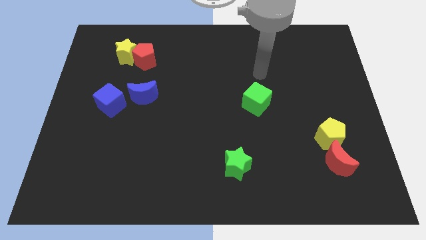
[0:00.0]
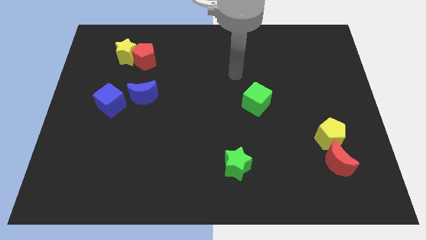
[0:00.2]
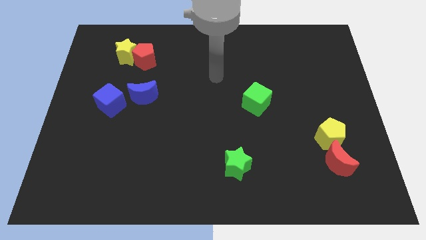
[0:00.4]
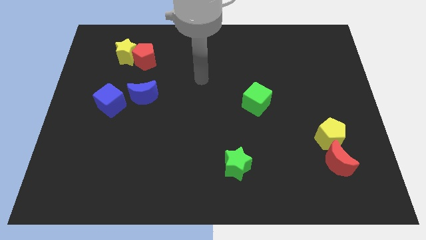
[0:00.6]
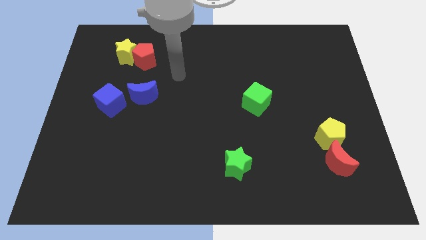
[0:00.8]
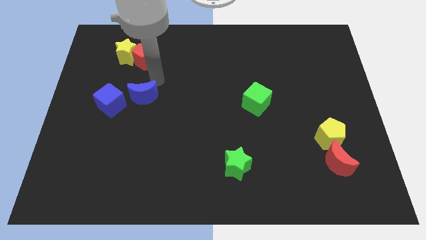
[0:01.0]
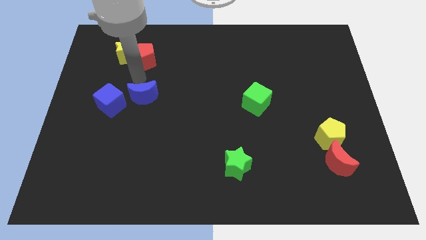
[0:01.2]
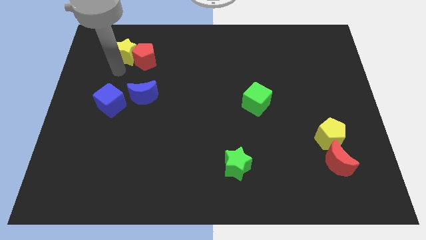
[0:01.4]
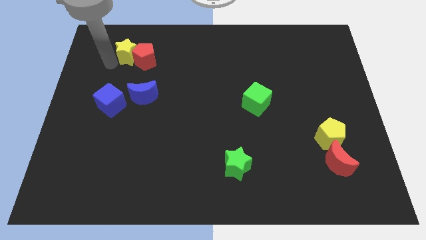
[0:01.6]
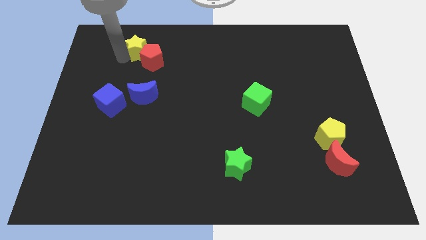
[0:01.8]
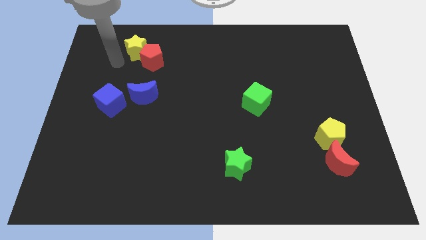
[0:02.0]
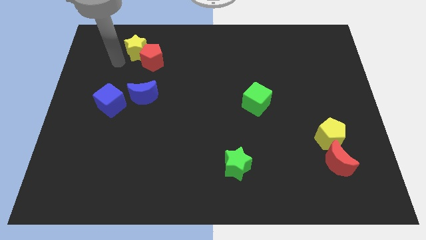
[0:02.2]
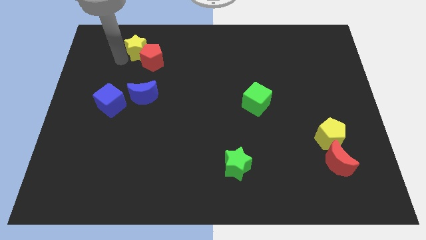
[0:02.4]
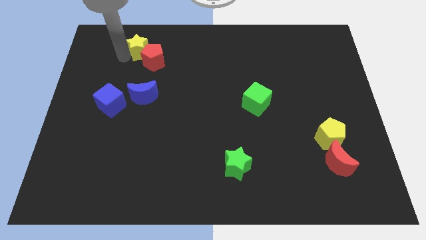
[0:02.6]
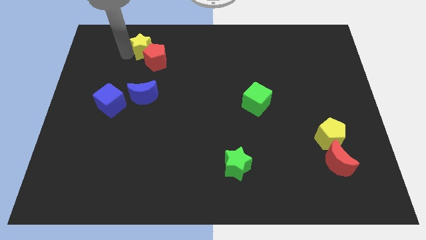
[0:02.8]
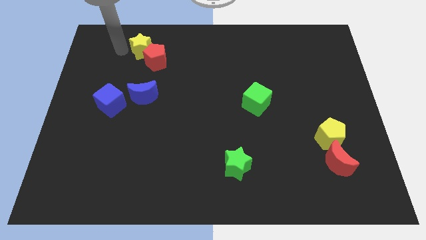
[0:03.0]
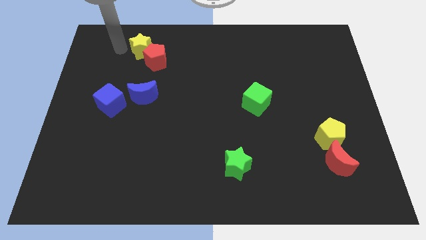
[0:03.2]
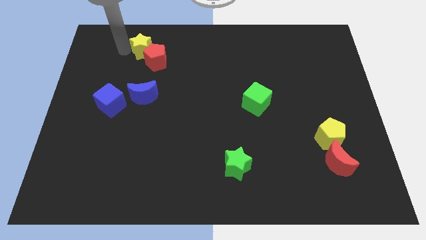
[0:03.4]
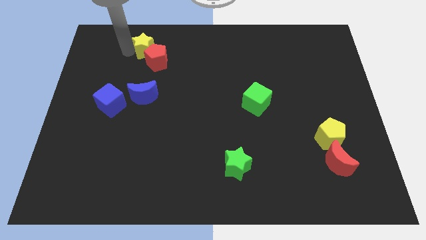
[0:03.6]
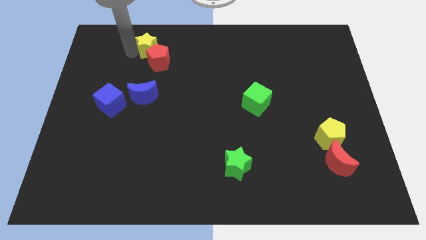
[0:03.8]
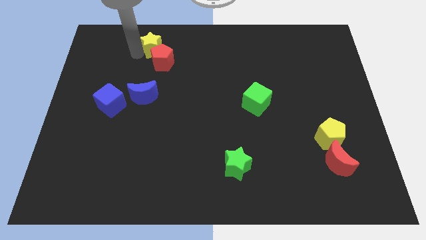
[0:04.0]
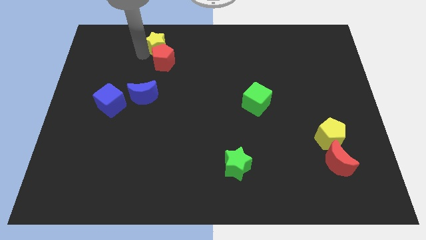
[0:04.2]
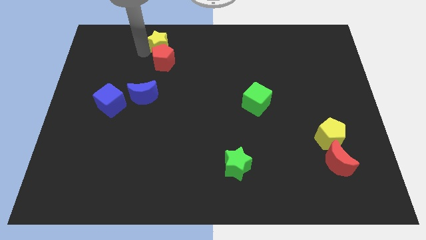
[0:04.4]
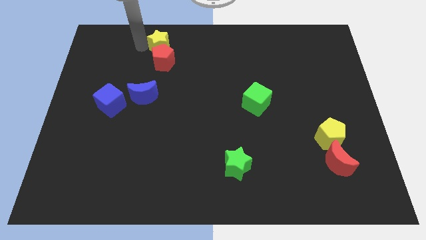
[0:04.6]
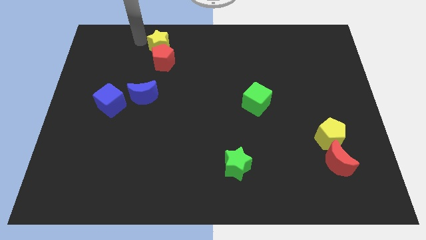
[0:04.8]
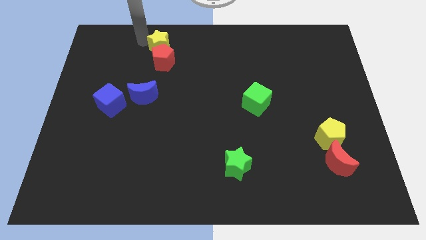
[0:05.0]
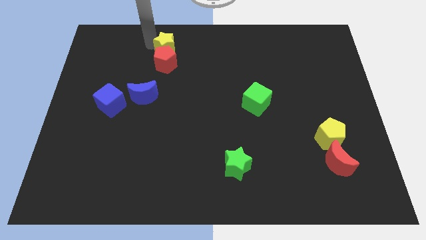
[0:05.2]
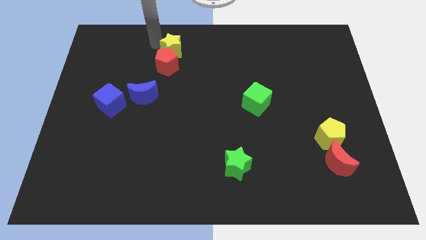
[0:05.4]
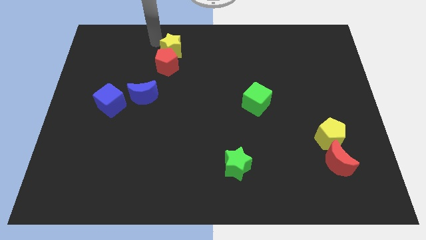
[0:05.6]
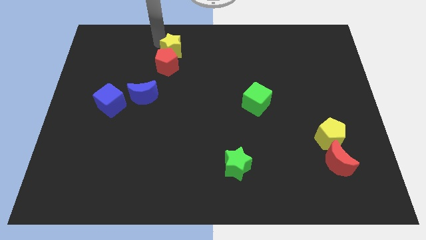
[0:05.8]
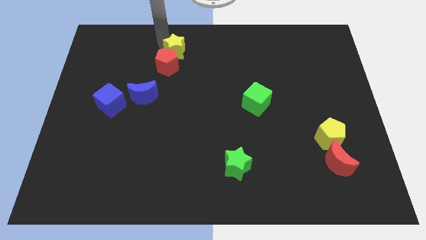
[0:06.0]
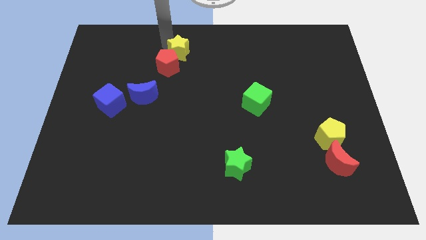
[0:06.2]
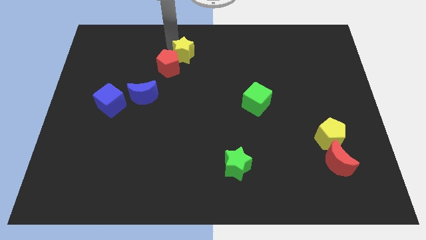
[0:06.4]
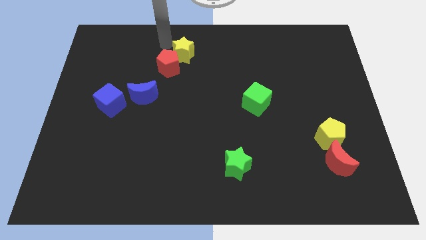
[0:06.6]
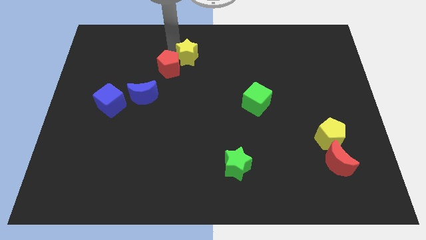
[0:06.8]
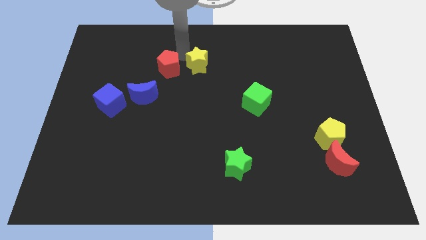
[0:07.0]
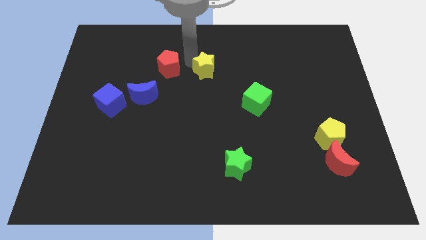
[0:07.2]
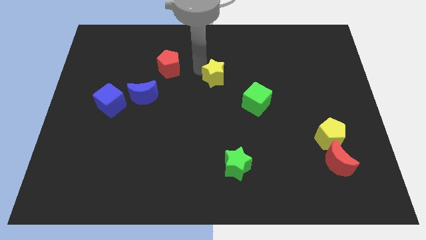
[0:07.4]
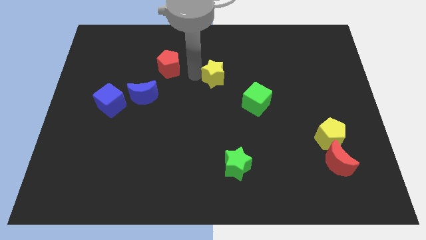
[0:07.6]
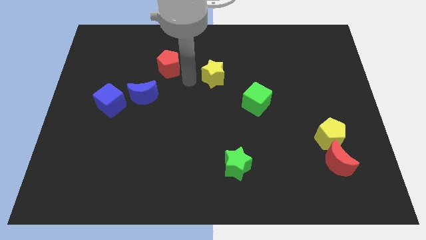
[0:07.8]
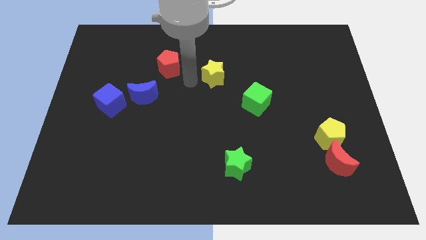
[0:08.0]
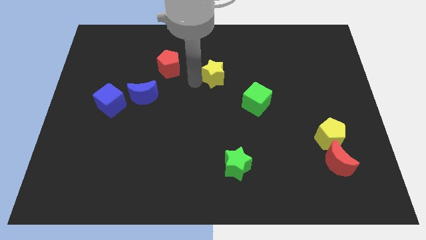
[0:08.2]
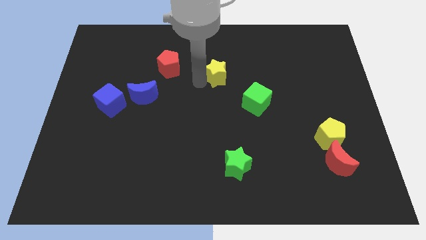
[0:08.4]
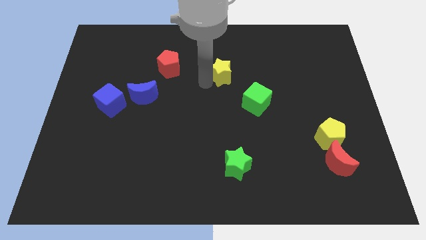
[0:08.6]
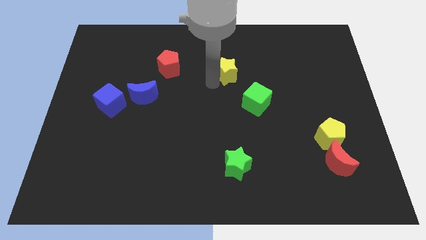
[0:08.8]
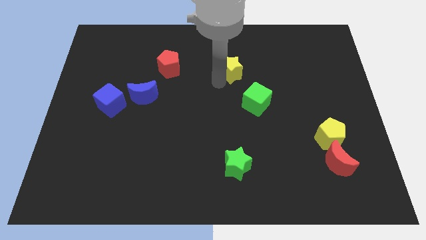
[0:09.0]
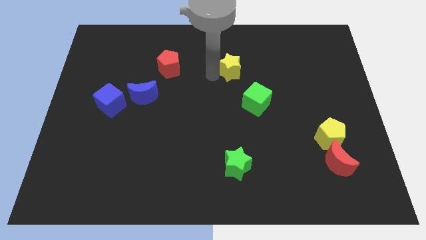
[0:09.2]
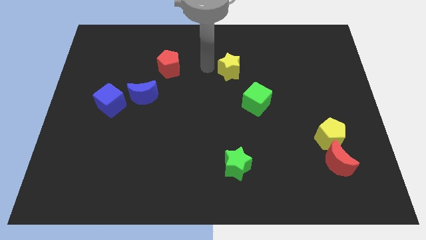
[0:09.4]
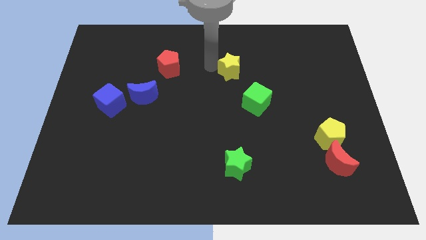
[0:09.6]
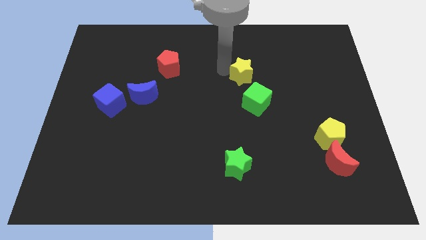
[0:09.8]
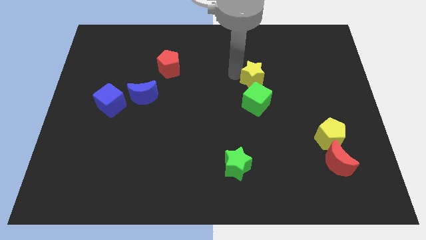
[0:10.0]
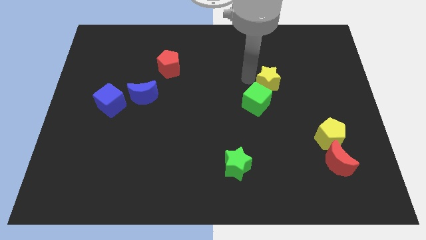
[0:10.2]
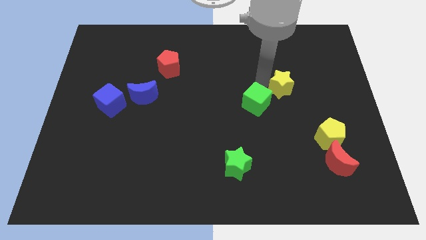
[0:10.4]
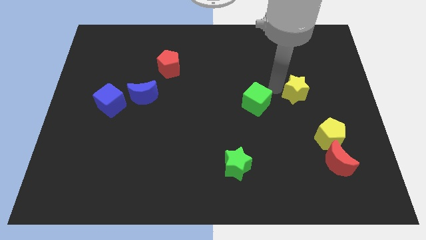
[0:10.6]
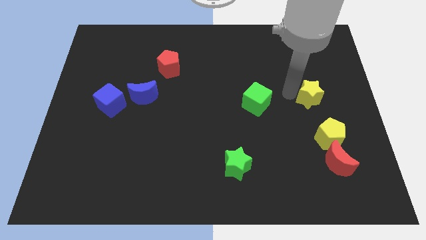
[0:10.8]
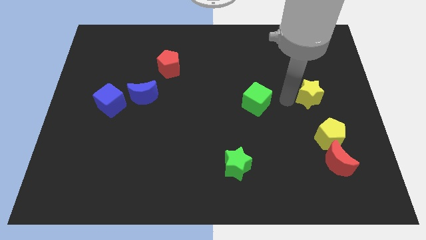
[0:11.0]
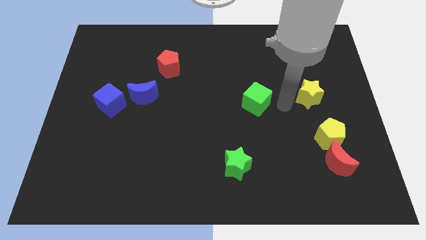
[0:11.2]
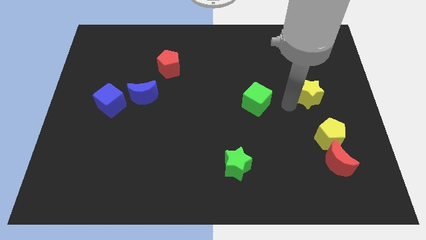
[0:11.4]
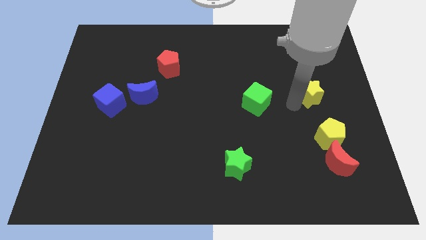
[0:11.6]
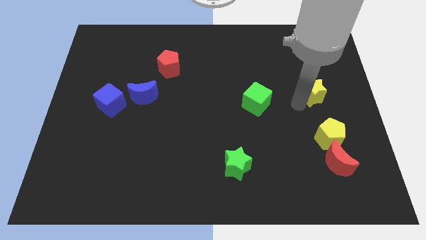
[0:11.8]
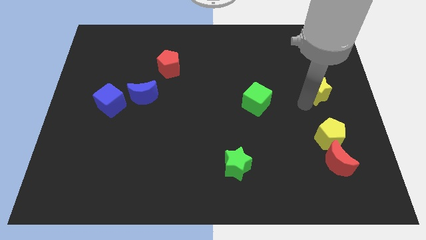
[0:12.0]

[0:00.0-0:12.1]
put the yellow star to the center right
